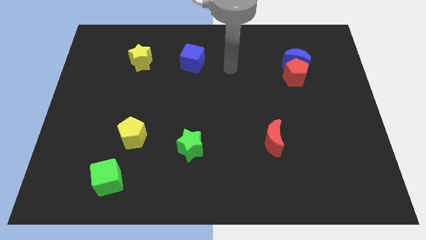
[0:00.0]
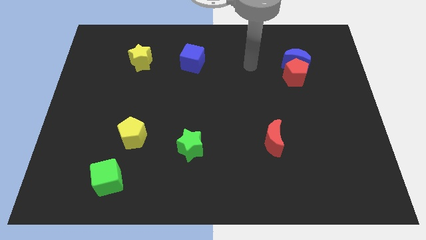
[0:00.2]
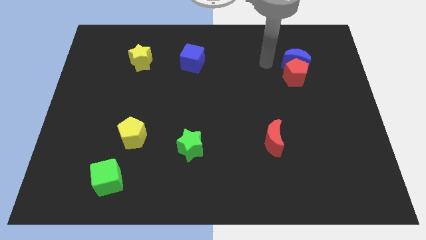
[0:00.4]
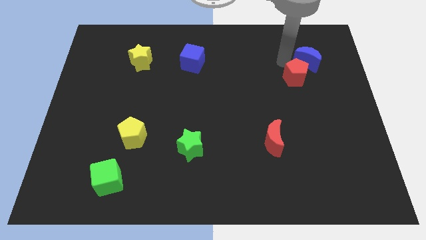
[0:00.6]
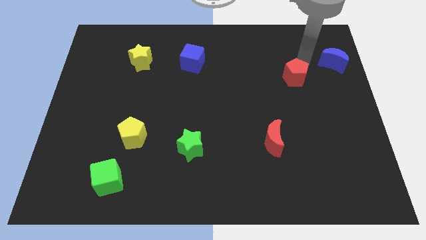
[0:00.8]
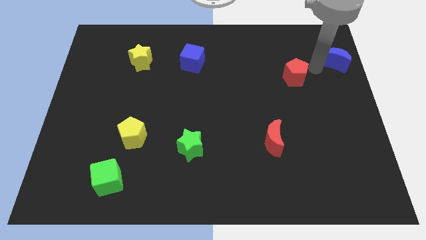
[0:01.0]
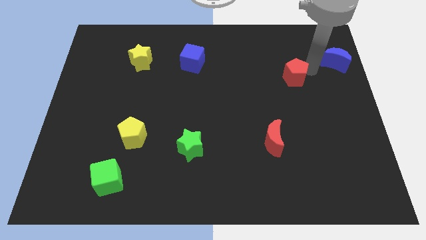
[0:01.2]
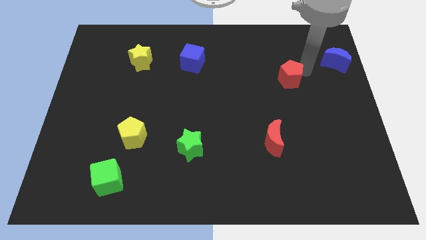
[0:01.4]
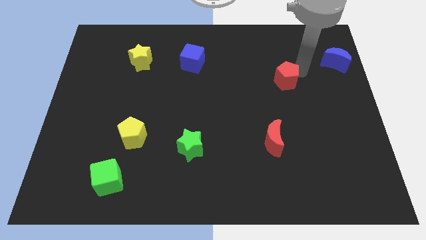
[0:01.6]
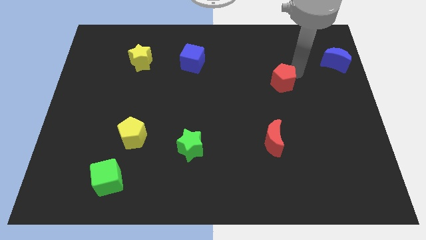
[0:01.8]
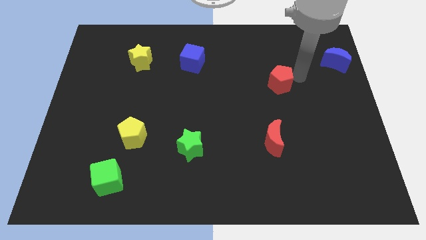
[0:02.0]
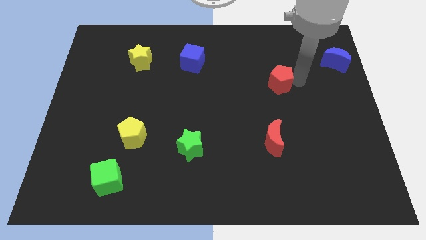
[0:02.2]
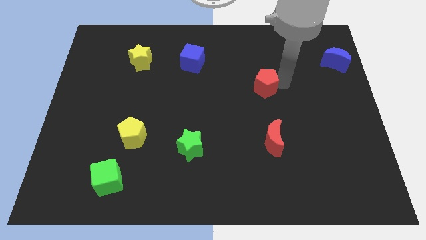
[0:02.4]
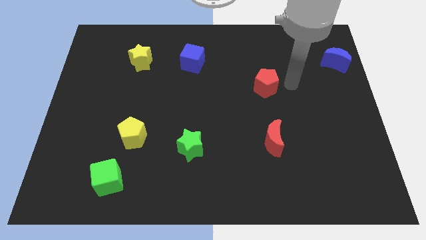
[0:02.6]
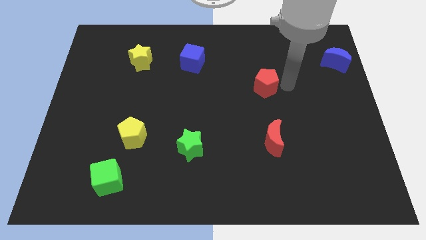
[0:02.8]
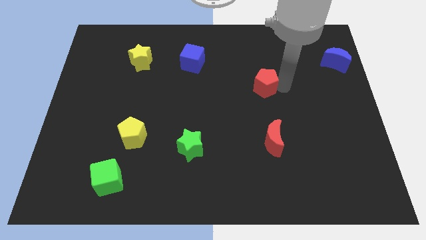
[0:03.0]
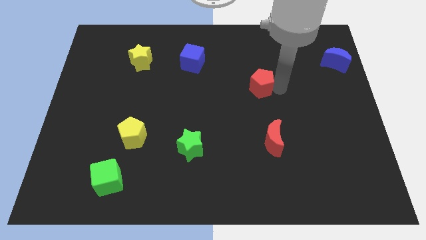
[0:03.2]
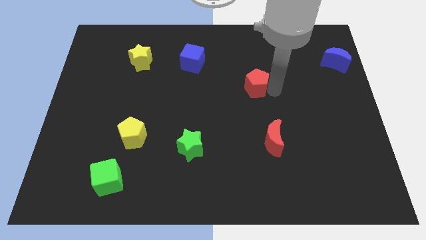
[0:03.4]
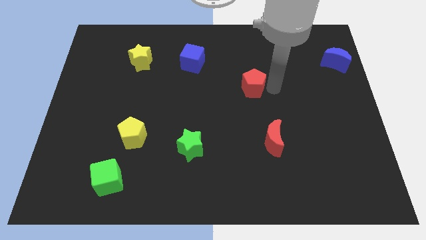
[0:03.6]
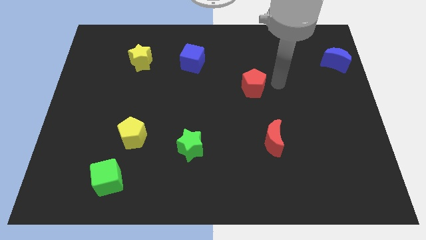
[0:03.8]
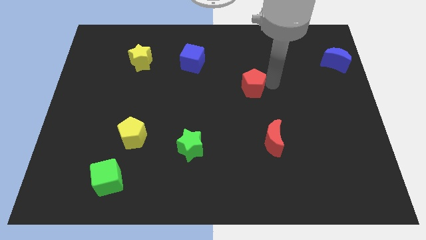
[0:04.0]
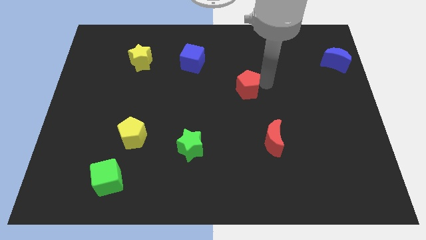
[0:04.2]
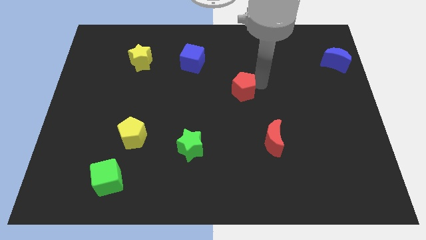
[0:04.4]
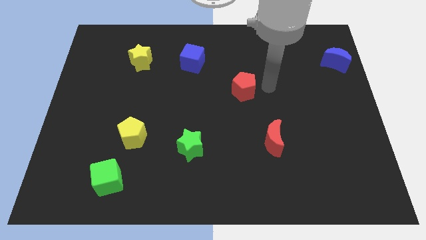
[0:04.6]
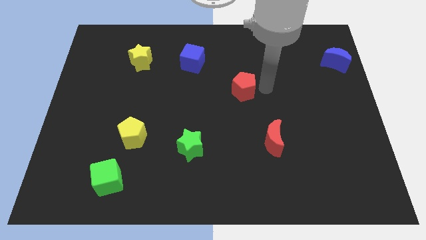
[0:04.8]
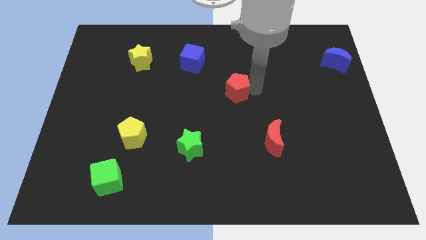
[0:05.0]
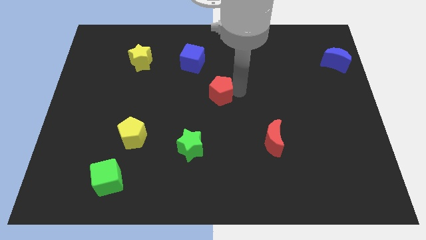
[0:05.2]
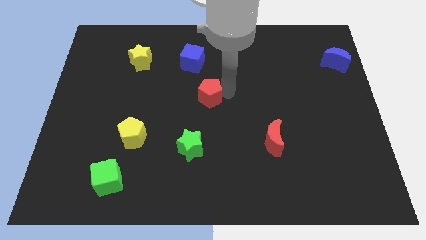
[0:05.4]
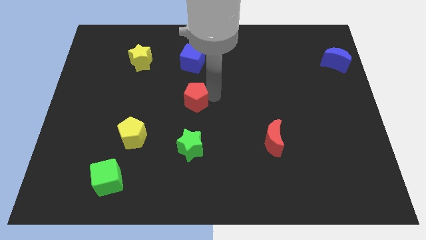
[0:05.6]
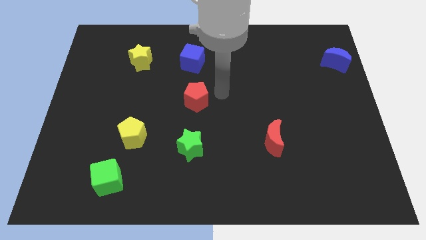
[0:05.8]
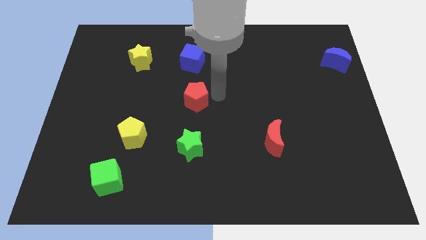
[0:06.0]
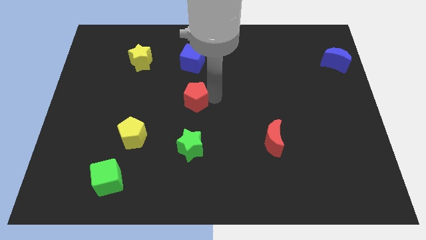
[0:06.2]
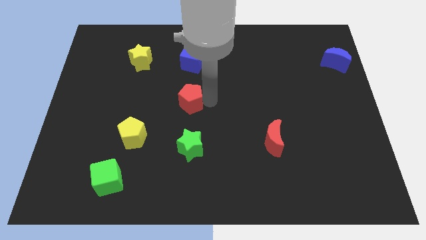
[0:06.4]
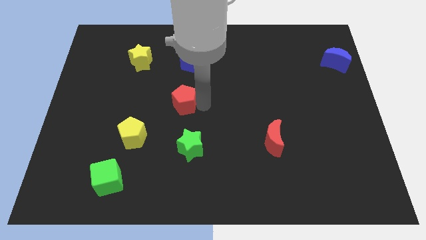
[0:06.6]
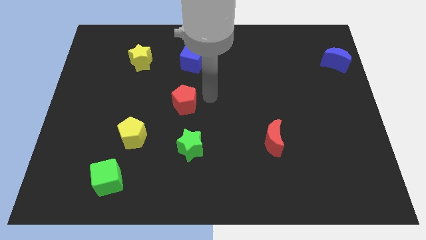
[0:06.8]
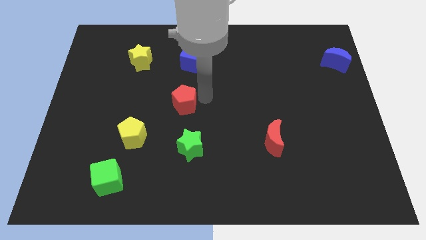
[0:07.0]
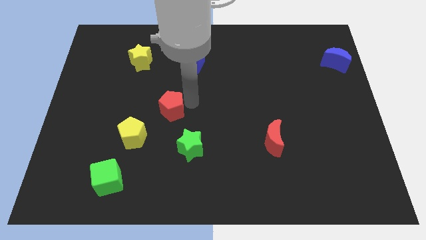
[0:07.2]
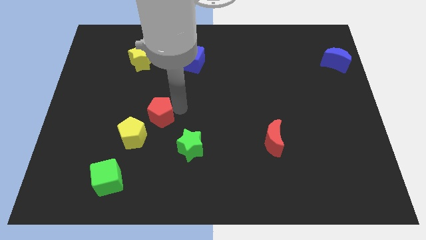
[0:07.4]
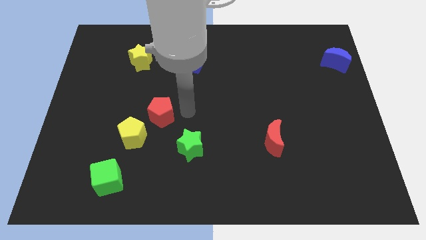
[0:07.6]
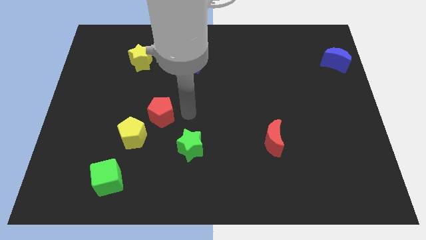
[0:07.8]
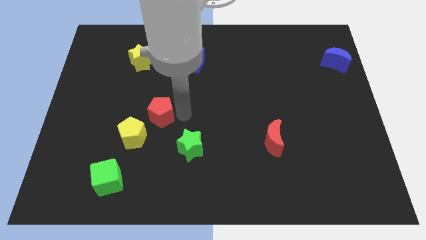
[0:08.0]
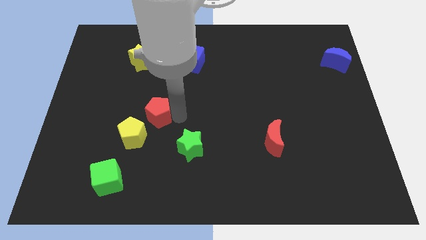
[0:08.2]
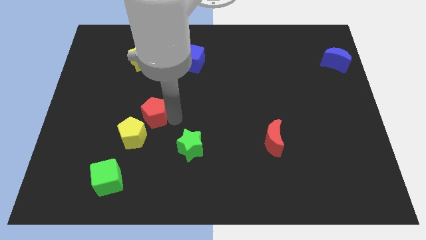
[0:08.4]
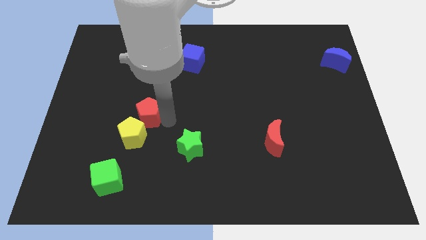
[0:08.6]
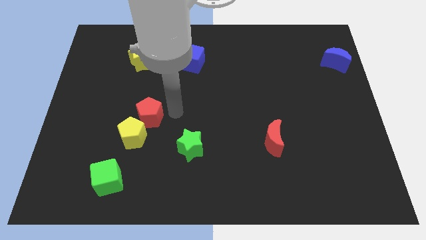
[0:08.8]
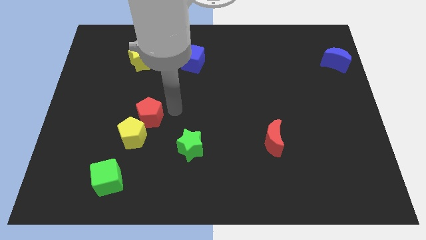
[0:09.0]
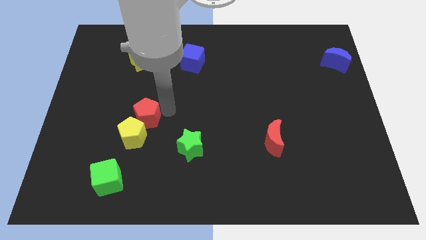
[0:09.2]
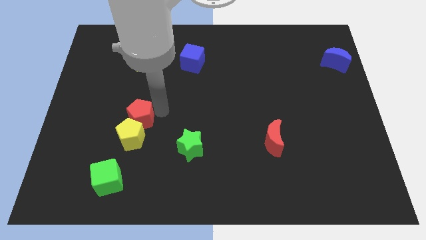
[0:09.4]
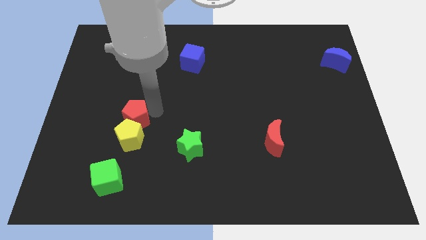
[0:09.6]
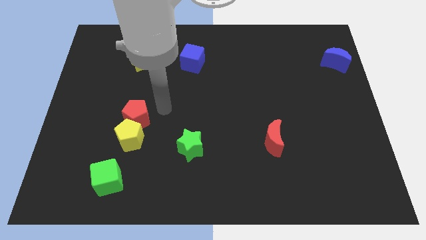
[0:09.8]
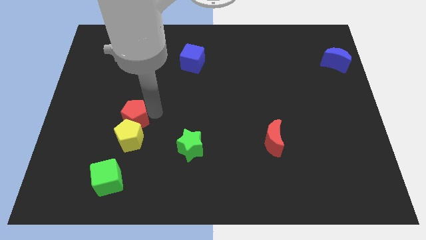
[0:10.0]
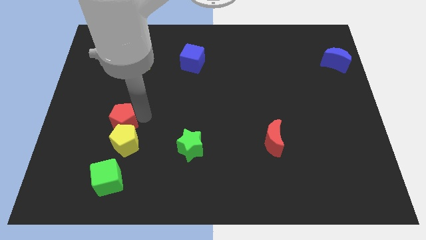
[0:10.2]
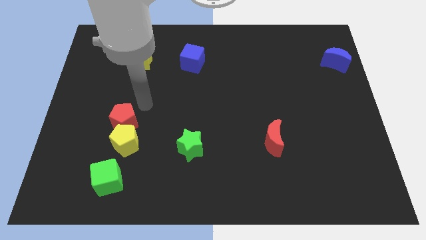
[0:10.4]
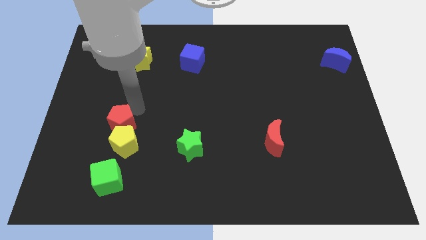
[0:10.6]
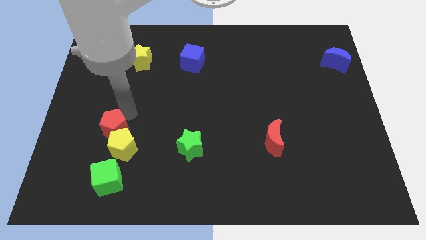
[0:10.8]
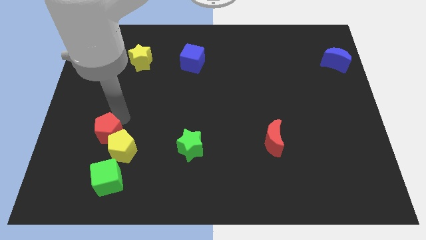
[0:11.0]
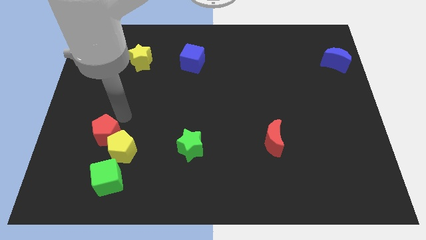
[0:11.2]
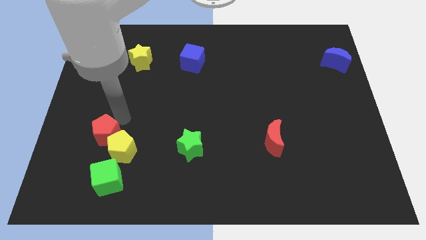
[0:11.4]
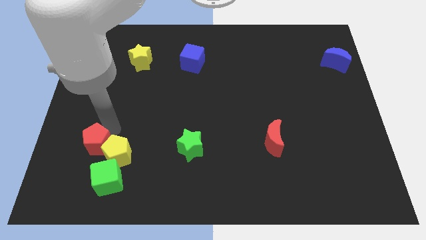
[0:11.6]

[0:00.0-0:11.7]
move the red pentagon to the top left side of the green cube
